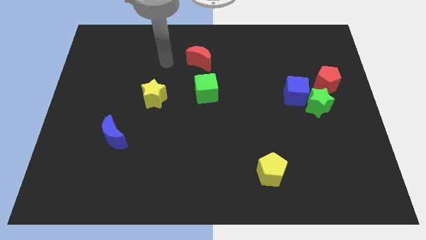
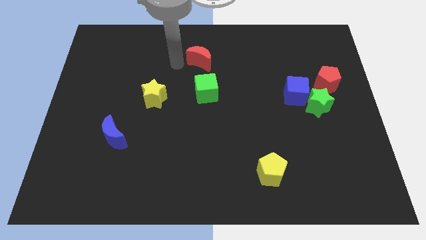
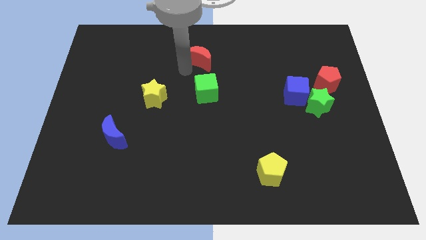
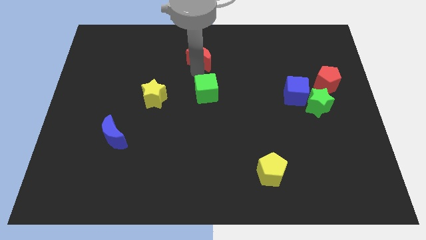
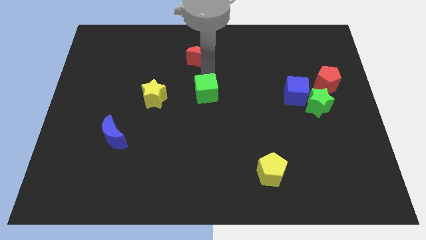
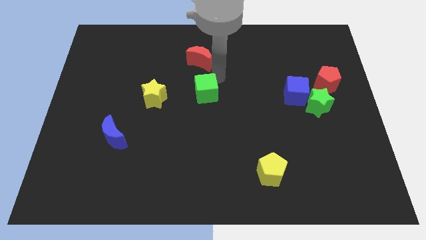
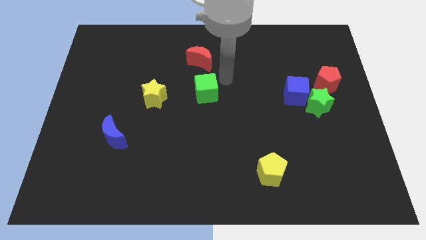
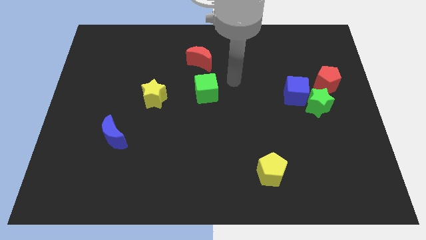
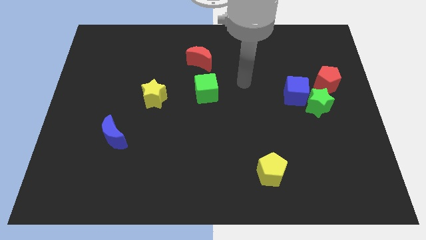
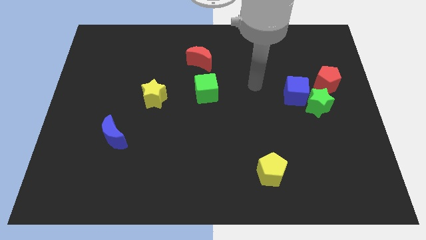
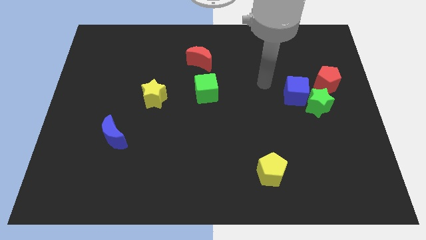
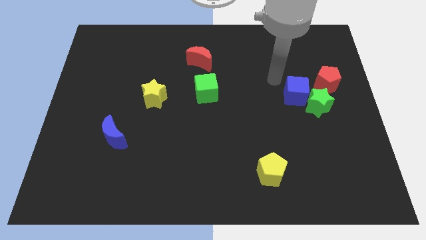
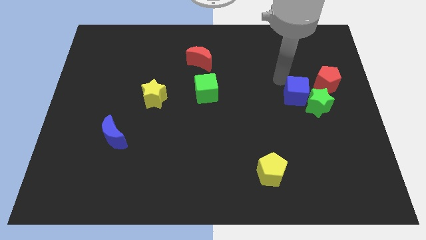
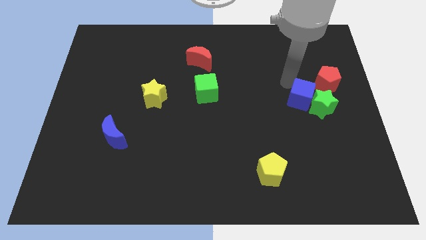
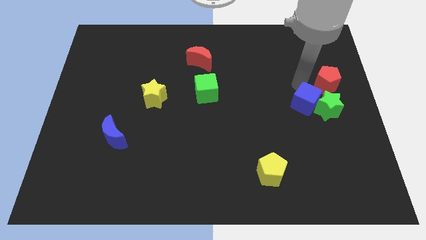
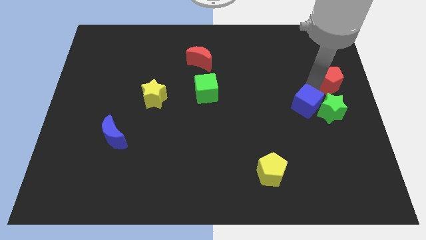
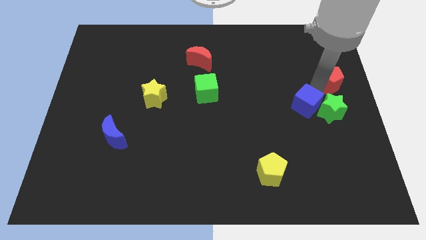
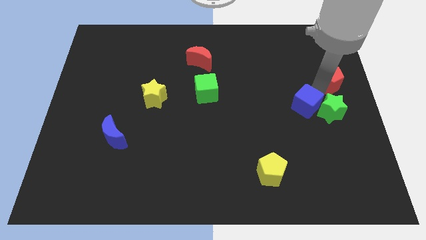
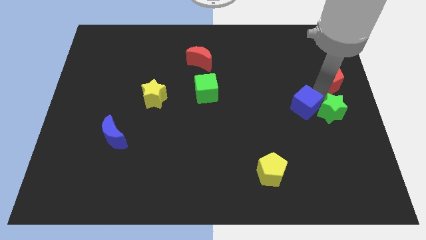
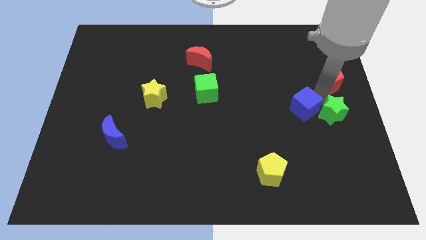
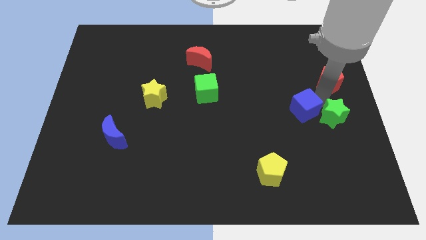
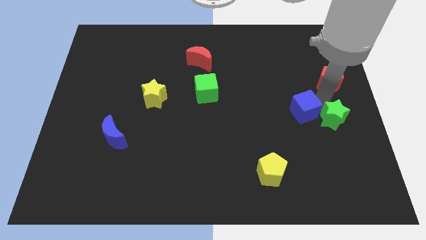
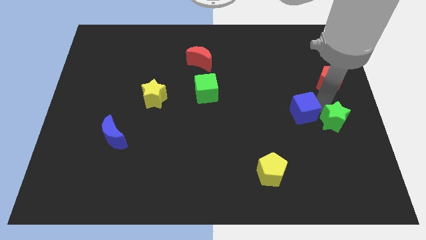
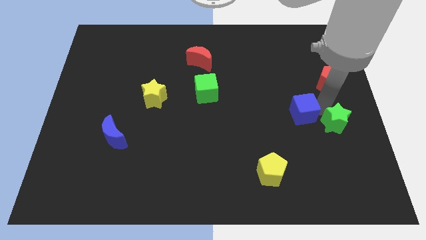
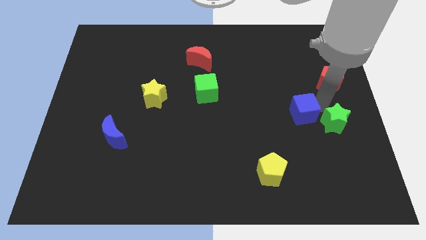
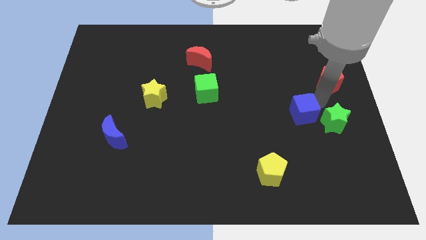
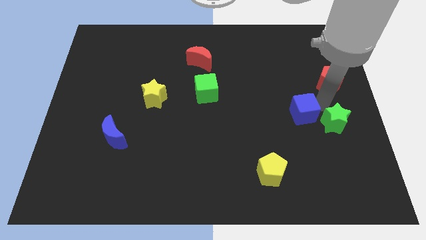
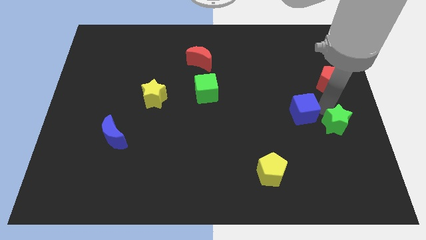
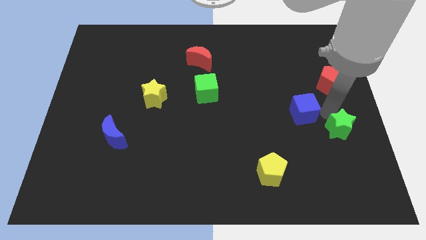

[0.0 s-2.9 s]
move the green star away from the blue cube and red pentagon

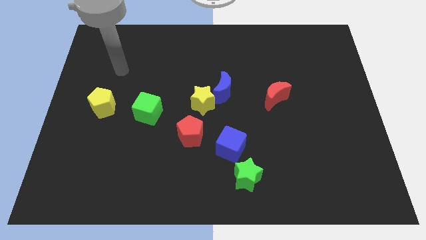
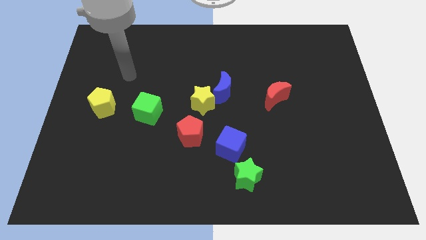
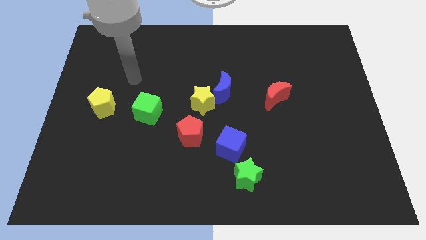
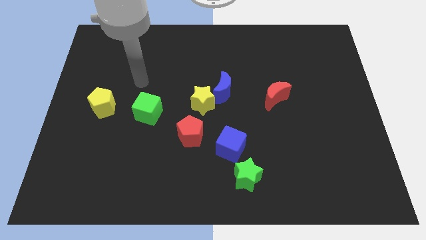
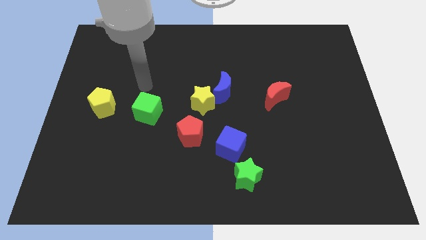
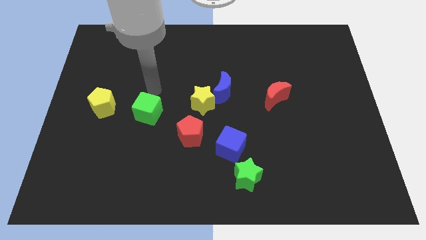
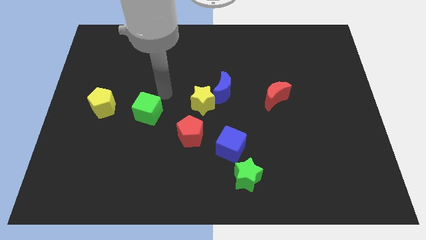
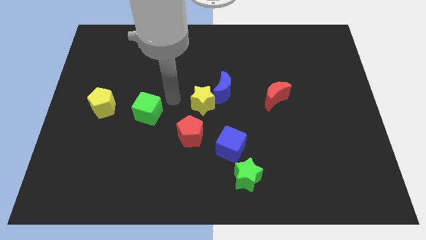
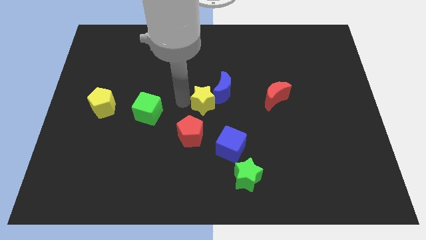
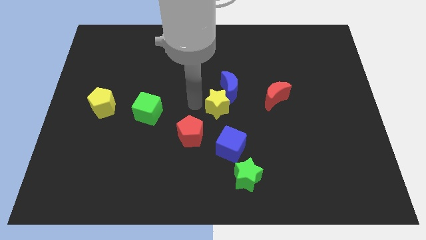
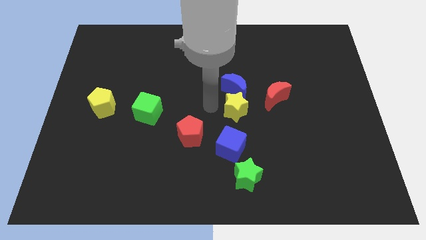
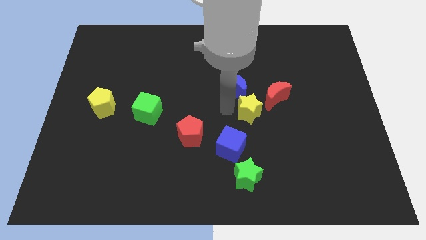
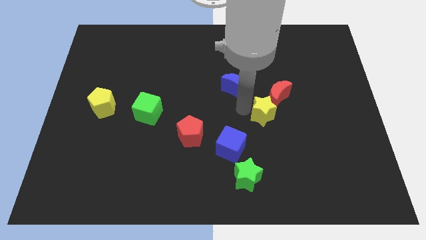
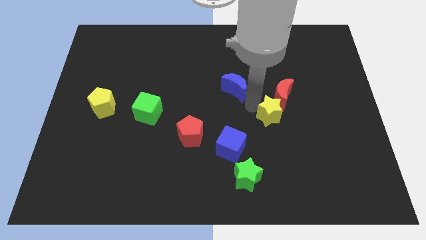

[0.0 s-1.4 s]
separate the blue moon from the yellow star

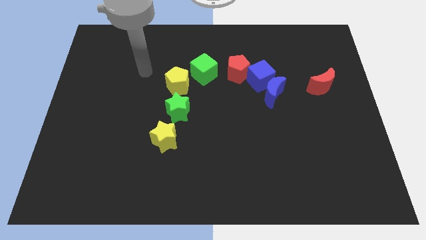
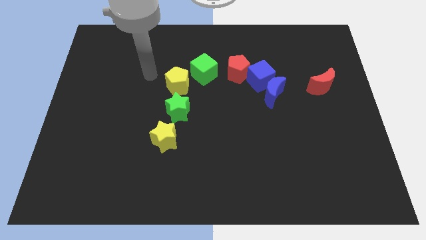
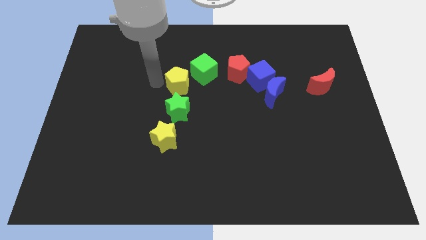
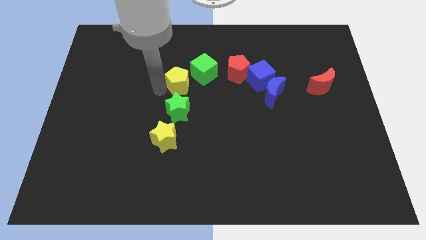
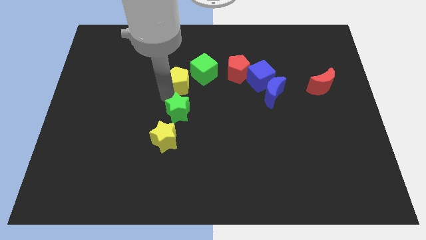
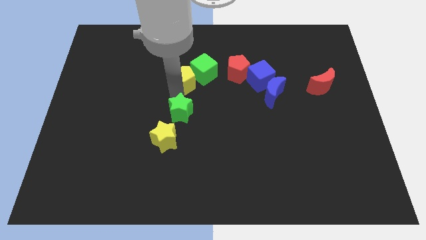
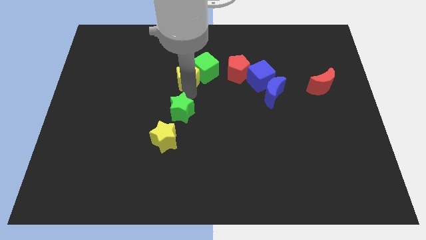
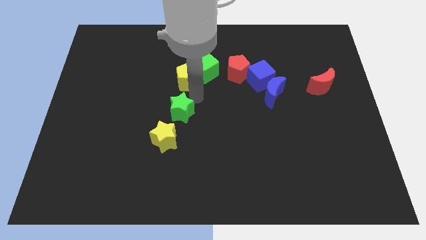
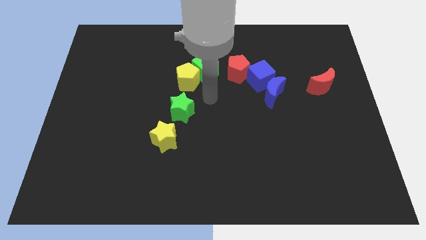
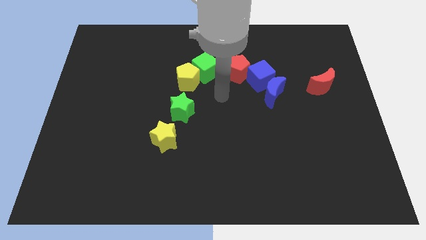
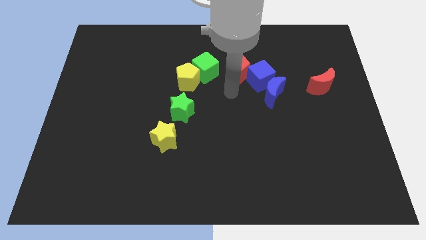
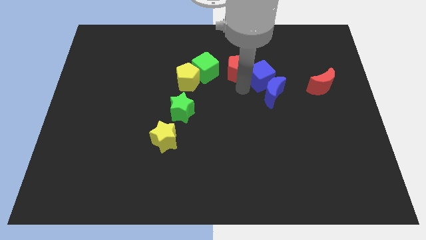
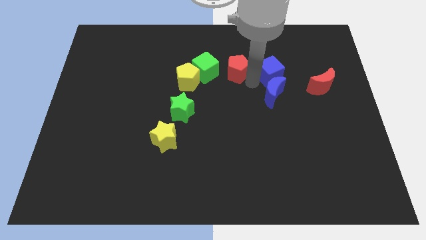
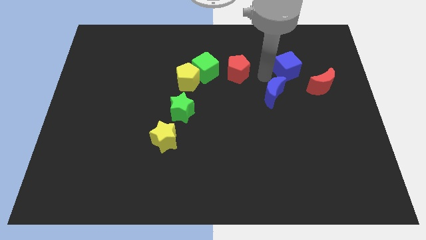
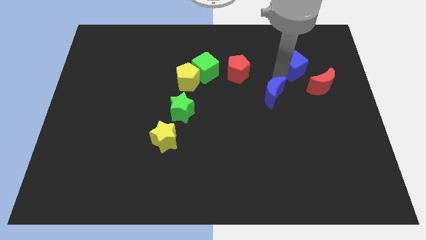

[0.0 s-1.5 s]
pull the blue moon apart from the blue cube

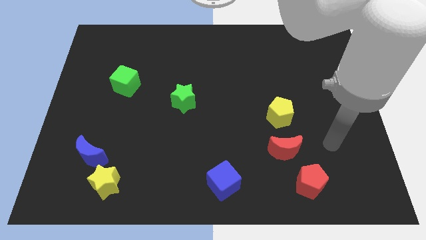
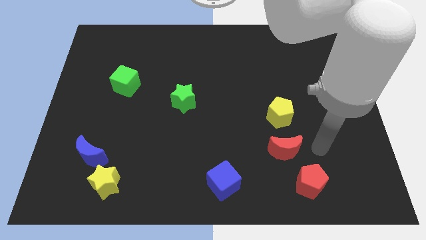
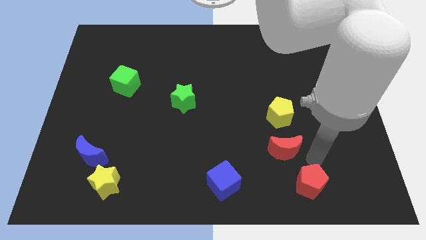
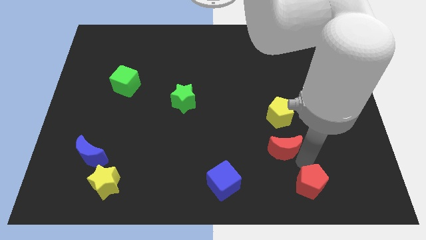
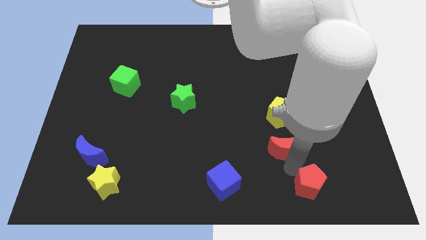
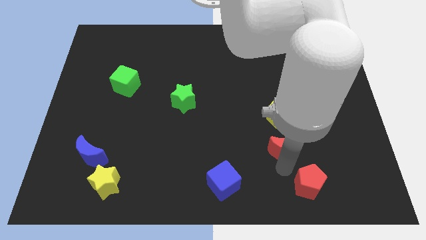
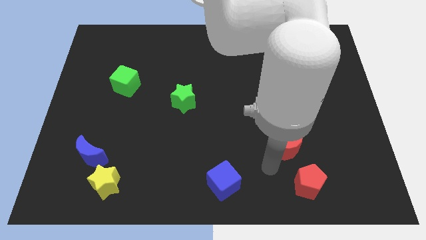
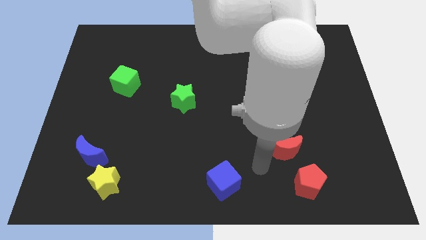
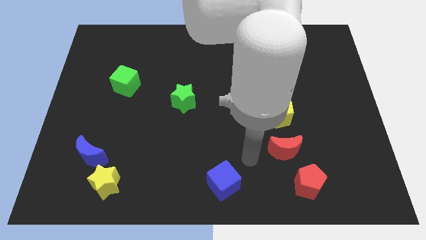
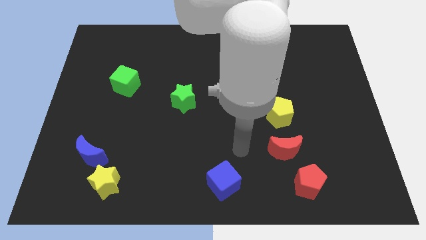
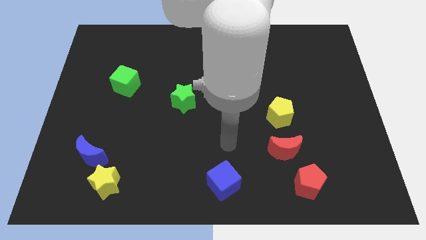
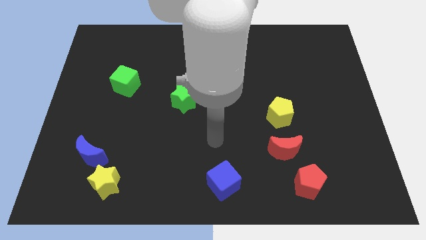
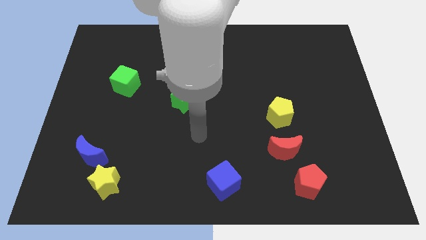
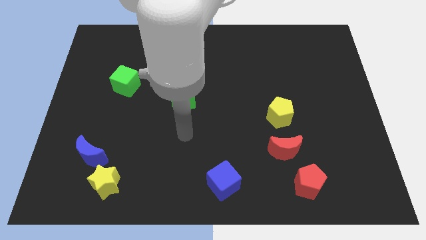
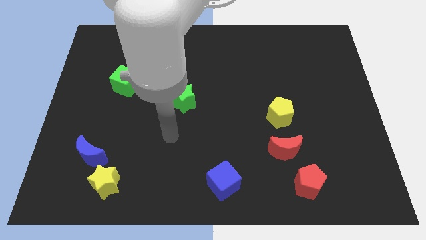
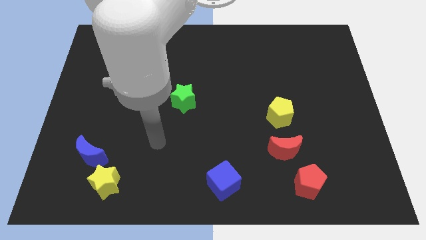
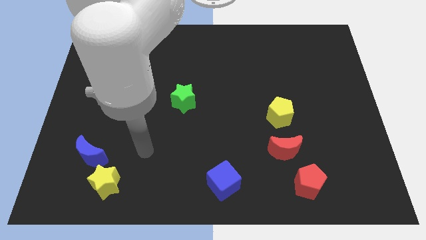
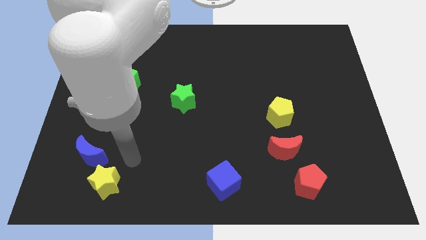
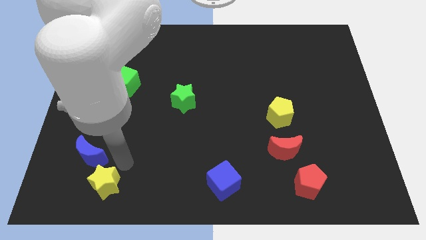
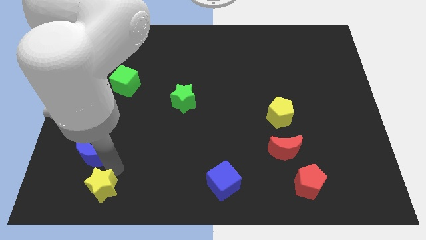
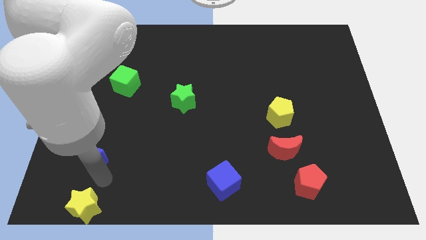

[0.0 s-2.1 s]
pull the blue moon apart from the yellow star

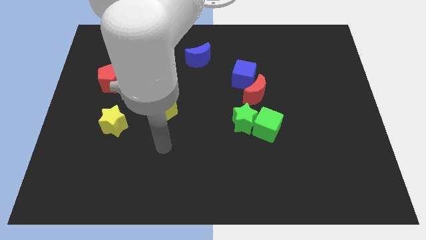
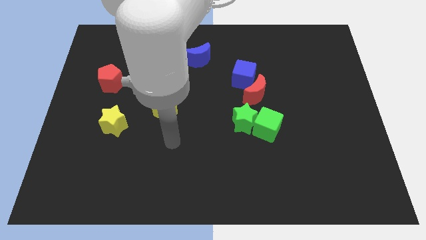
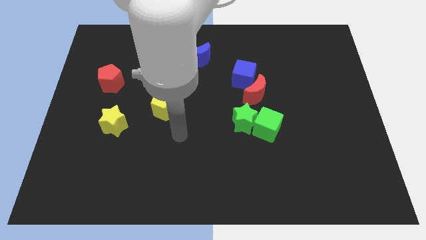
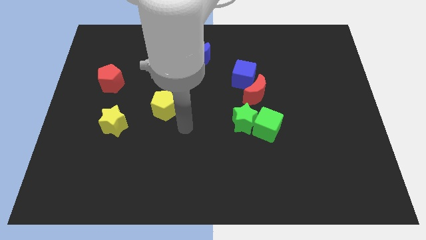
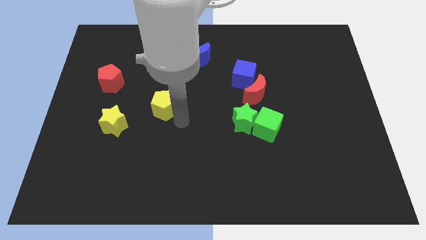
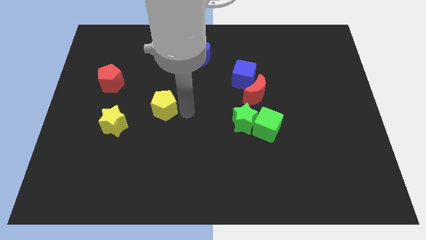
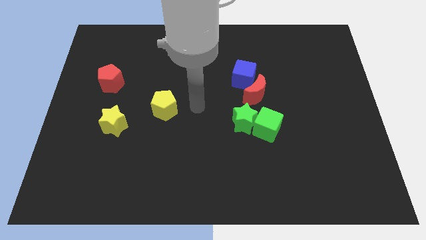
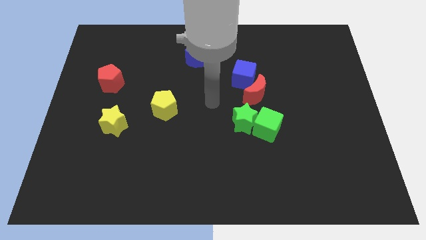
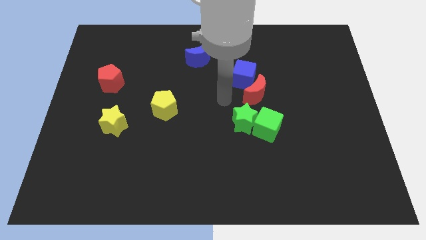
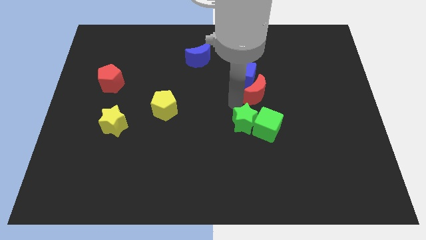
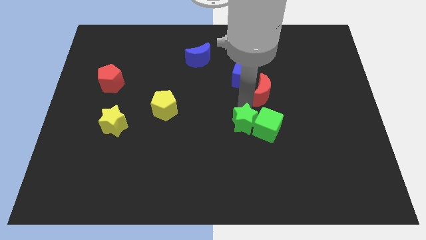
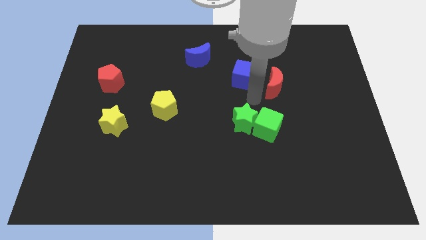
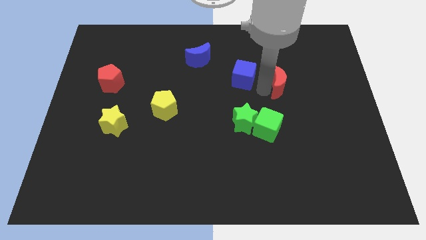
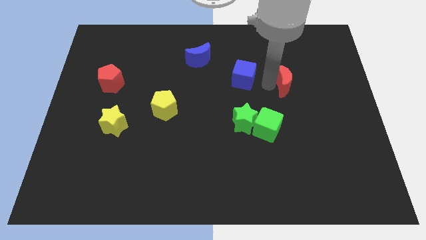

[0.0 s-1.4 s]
move the blue cube away from the red moon
